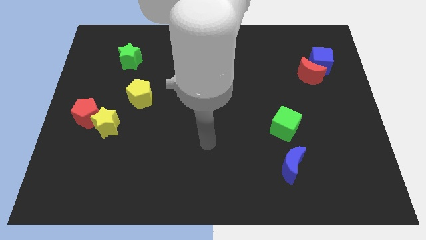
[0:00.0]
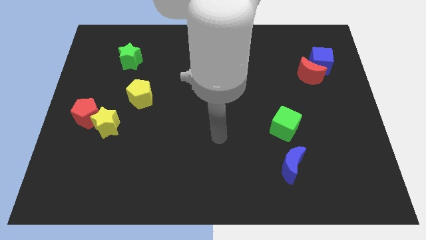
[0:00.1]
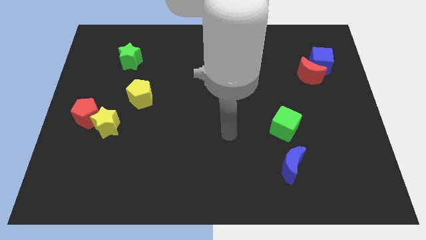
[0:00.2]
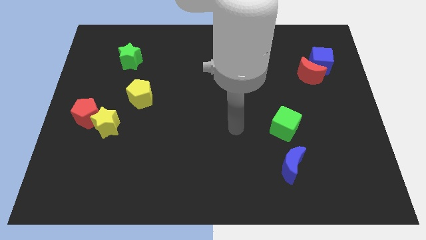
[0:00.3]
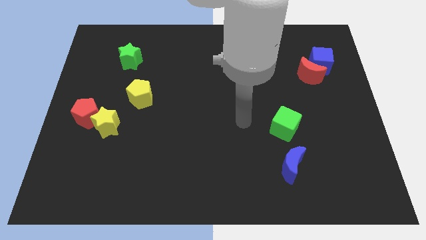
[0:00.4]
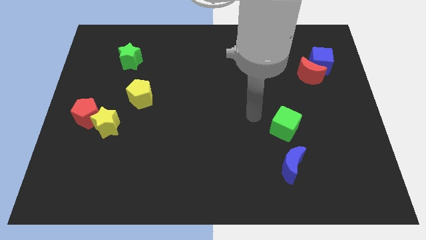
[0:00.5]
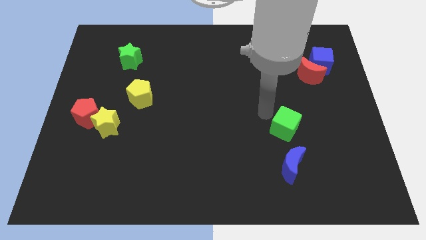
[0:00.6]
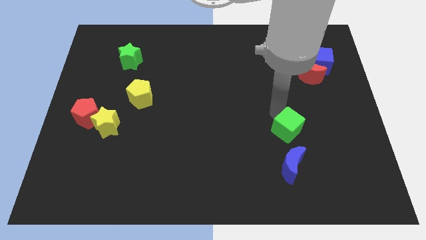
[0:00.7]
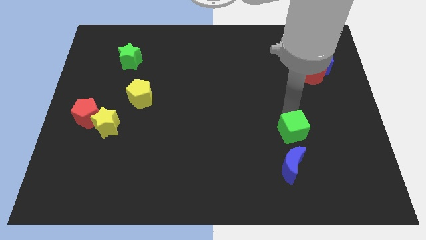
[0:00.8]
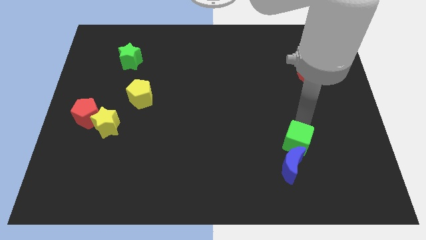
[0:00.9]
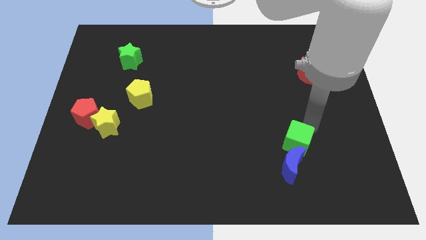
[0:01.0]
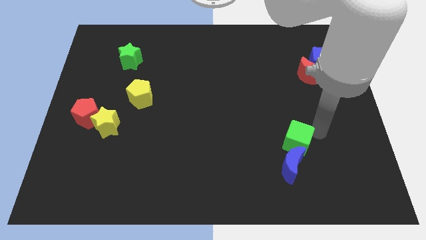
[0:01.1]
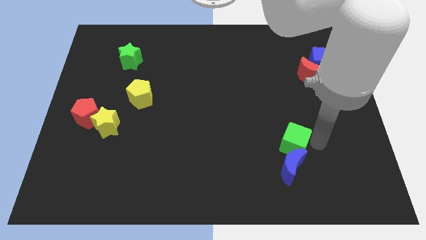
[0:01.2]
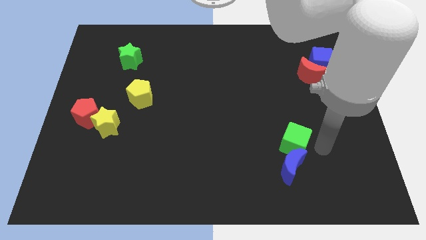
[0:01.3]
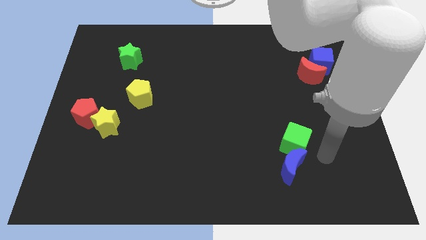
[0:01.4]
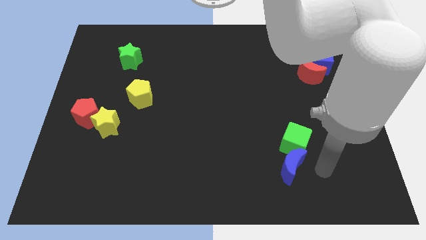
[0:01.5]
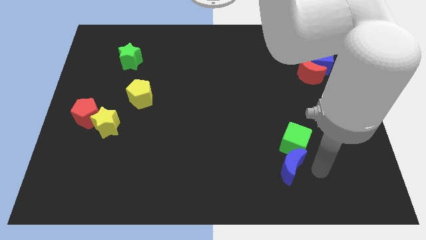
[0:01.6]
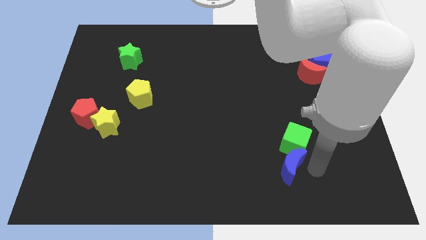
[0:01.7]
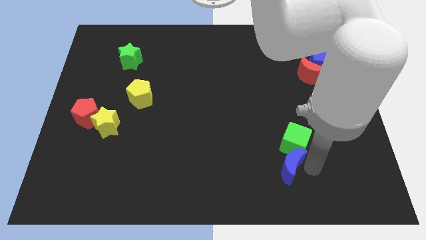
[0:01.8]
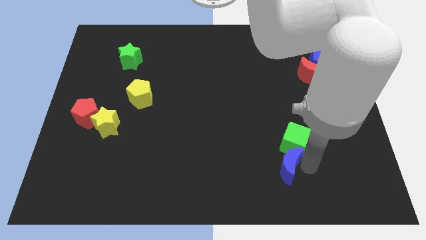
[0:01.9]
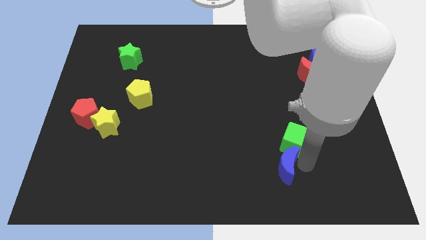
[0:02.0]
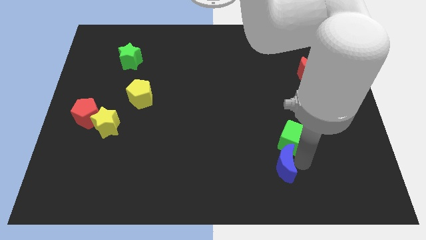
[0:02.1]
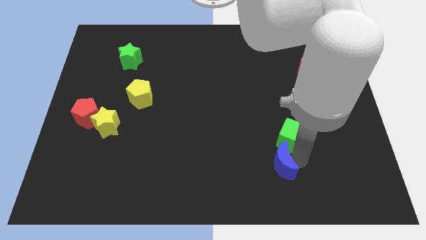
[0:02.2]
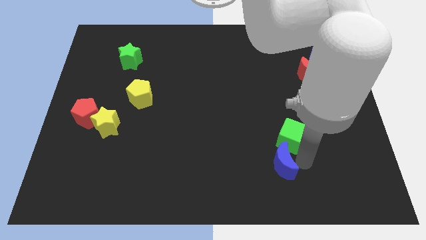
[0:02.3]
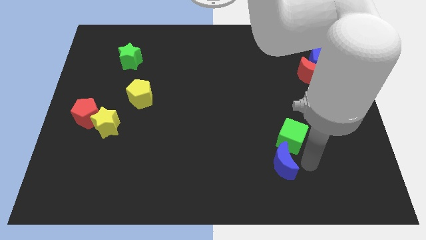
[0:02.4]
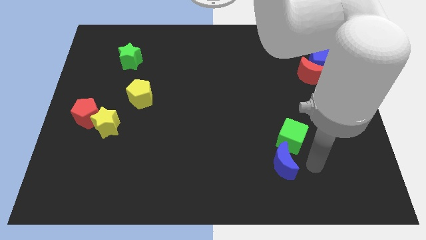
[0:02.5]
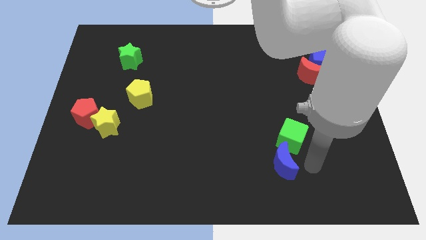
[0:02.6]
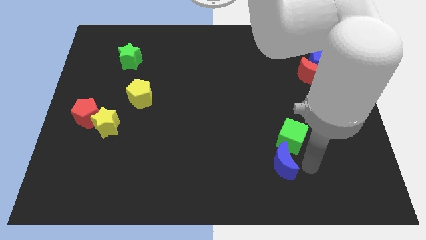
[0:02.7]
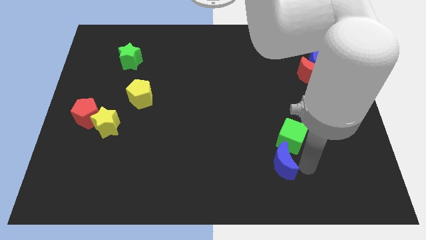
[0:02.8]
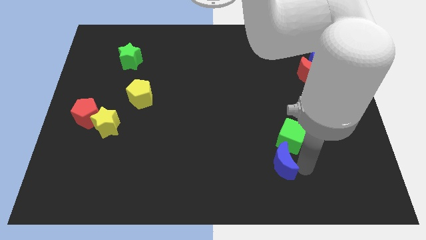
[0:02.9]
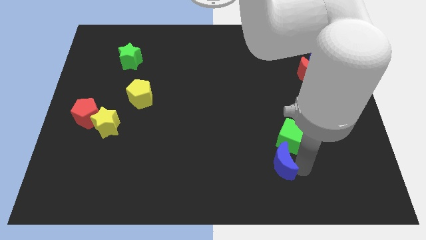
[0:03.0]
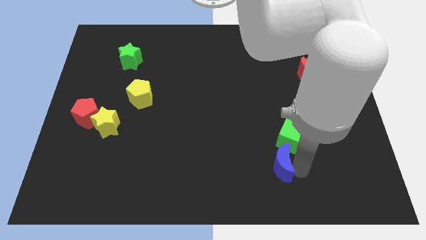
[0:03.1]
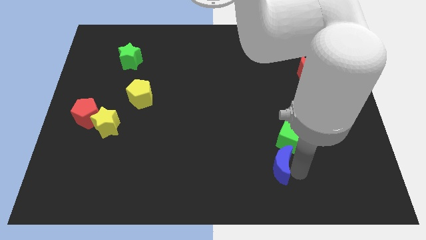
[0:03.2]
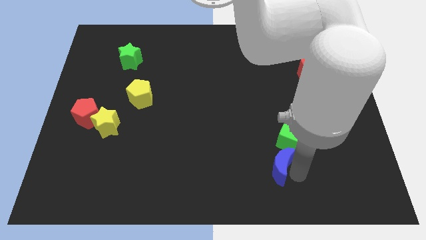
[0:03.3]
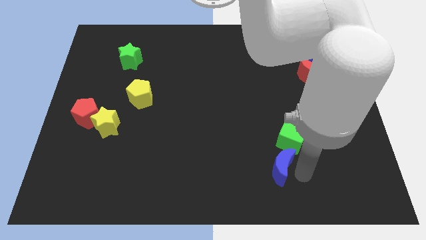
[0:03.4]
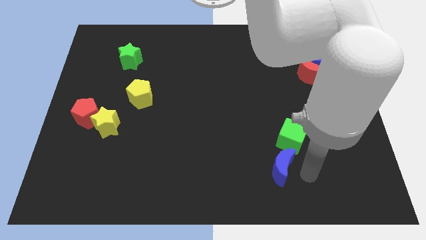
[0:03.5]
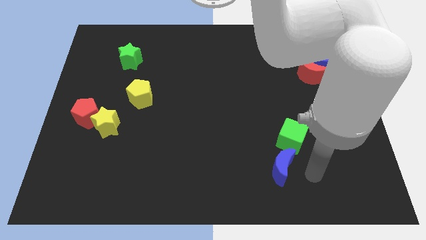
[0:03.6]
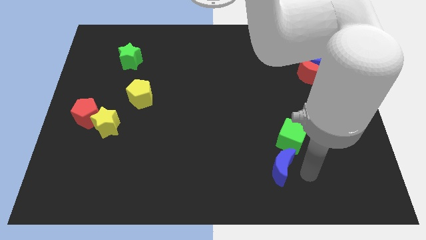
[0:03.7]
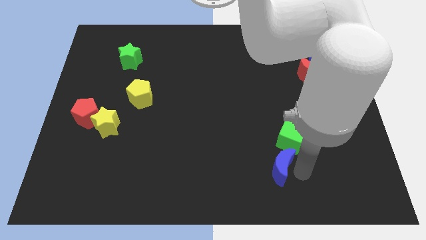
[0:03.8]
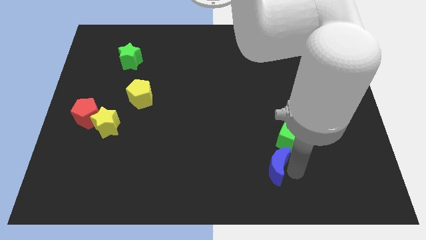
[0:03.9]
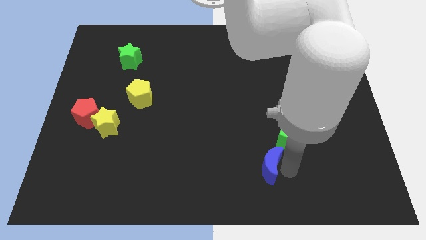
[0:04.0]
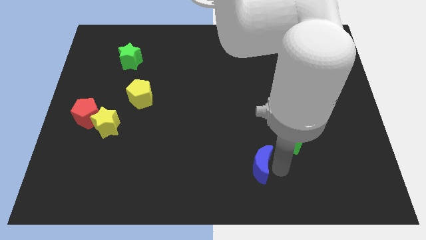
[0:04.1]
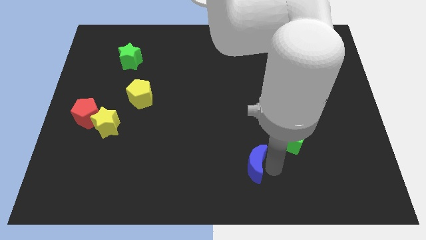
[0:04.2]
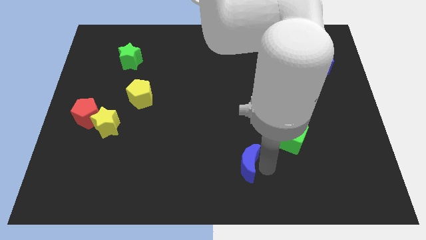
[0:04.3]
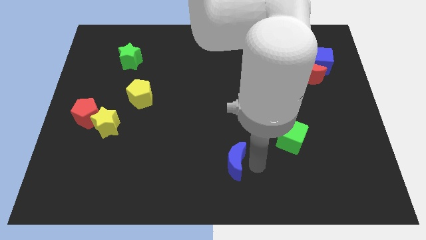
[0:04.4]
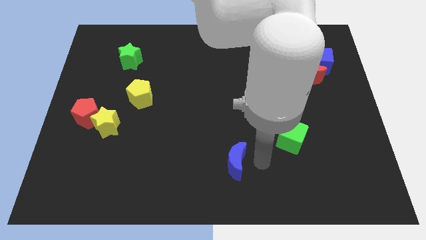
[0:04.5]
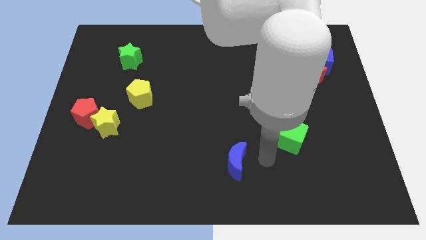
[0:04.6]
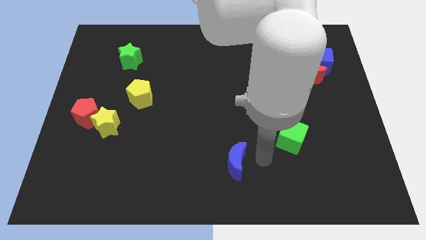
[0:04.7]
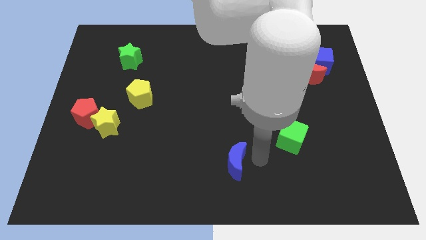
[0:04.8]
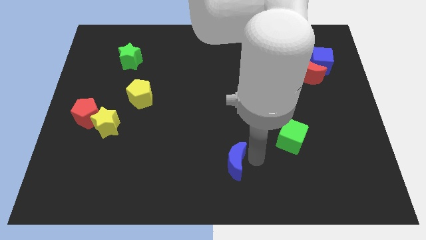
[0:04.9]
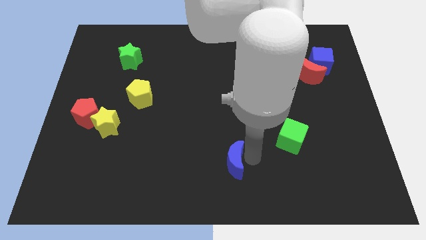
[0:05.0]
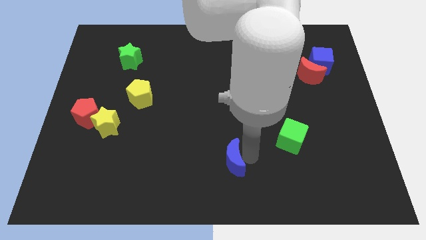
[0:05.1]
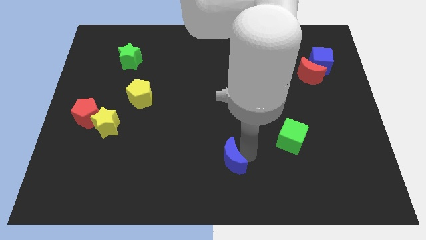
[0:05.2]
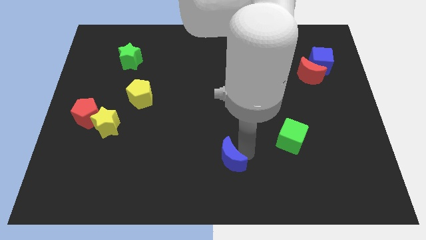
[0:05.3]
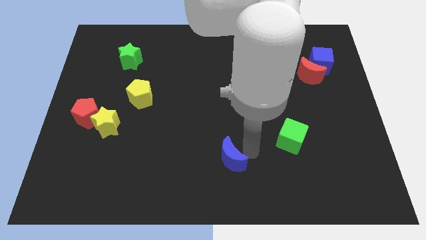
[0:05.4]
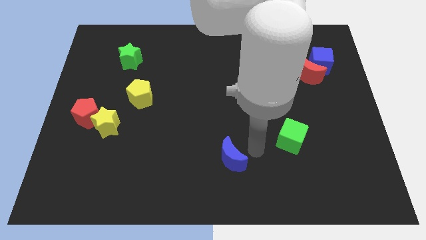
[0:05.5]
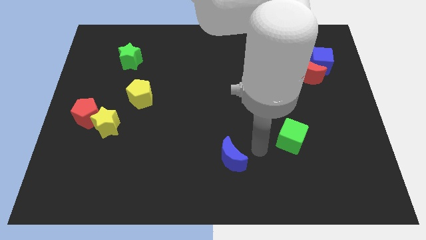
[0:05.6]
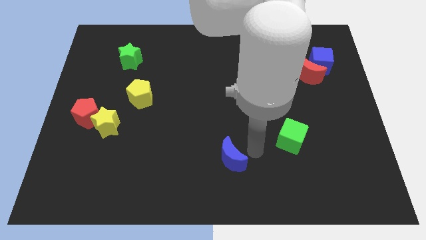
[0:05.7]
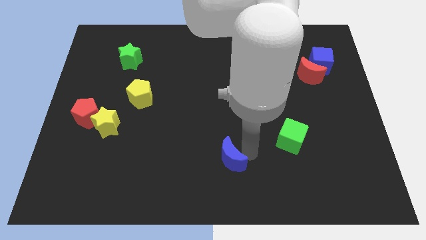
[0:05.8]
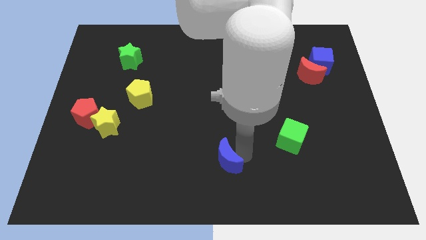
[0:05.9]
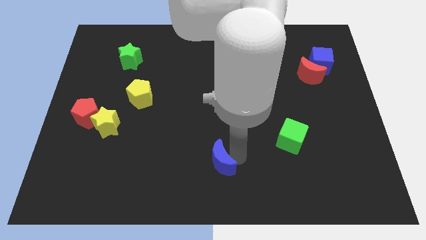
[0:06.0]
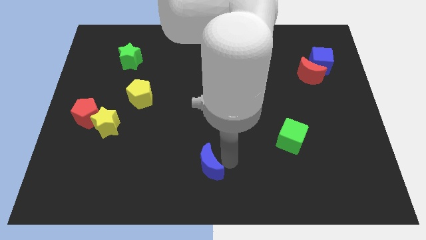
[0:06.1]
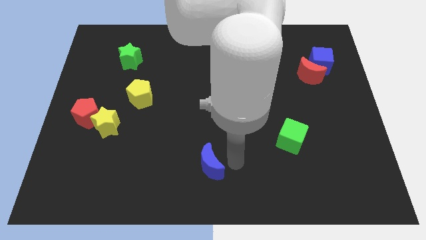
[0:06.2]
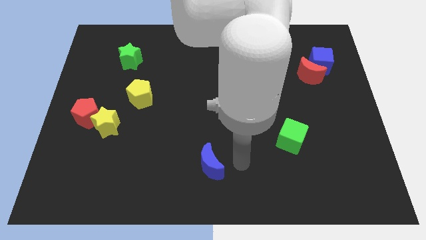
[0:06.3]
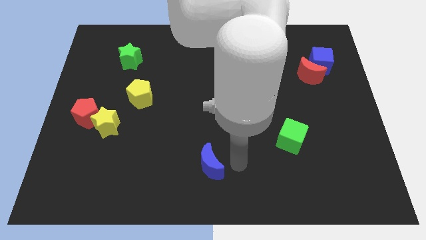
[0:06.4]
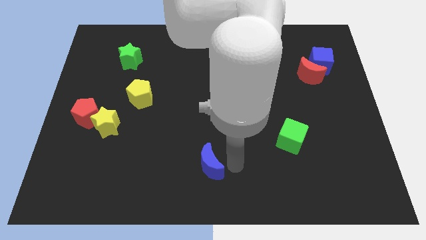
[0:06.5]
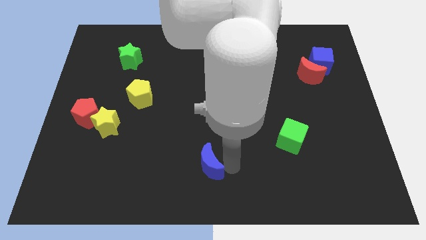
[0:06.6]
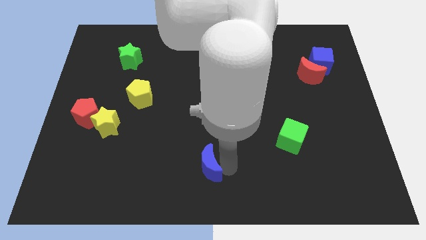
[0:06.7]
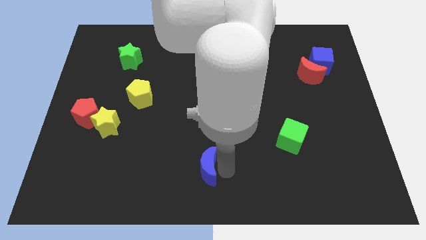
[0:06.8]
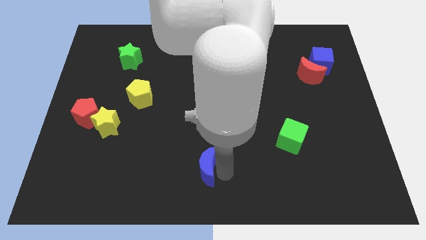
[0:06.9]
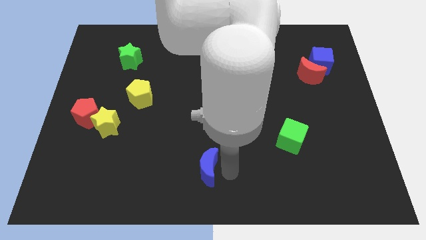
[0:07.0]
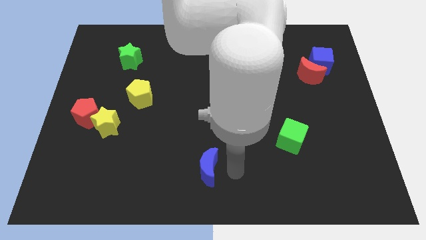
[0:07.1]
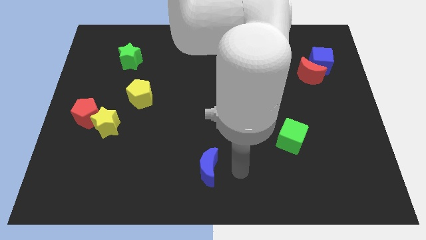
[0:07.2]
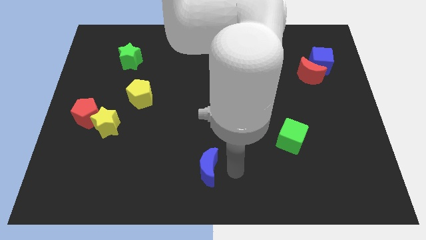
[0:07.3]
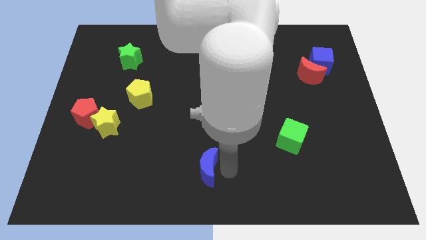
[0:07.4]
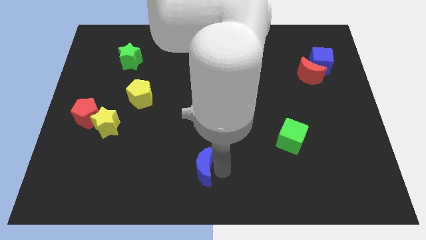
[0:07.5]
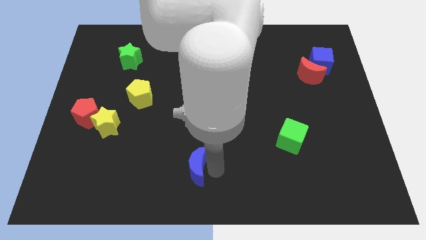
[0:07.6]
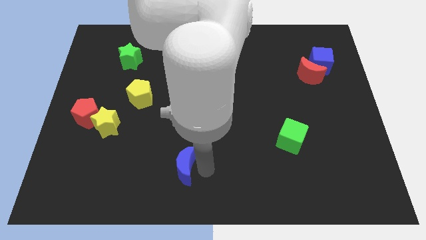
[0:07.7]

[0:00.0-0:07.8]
push the blue moon to the left
